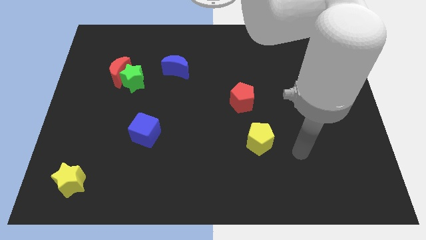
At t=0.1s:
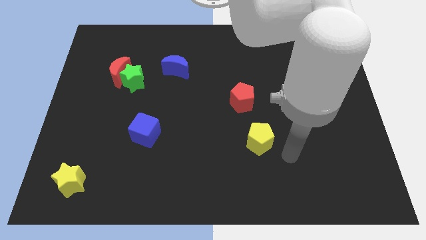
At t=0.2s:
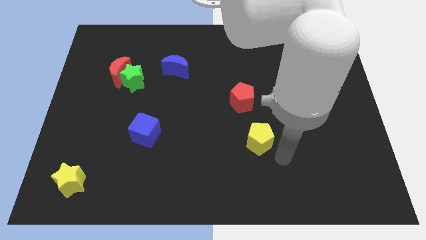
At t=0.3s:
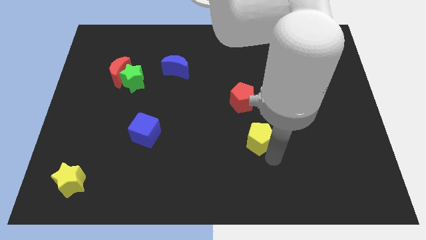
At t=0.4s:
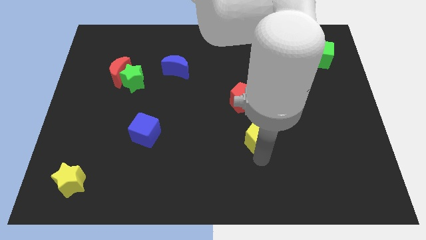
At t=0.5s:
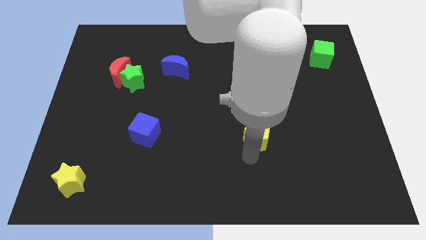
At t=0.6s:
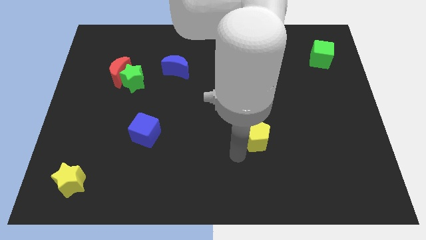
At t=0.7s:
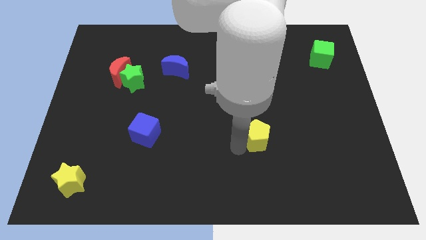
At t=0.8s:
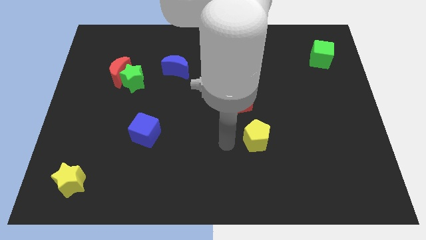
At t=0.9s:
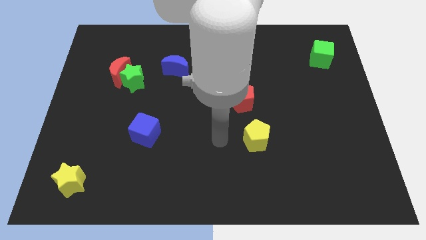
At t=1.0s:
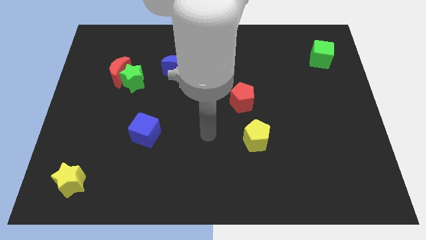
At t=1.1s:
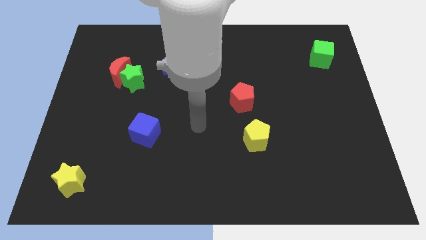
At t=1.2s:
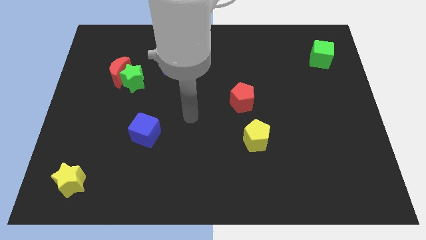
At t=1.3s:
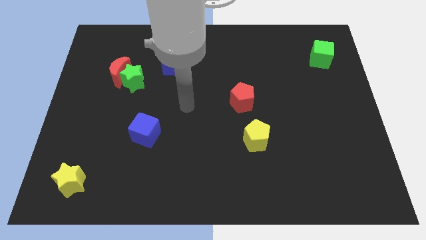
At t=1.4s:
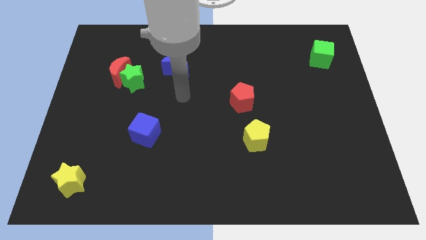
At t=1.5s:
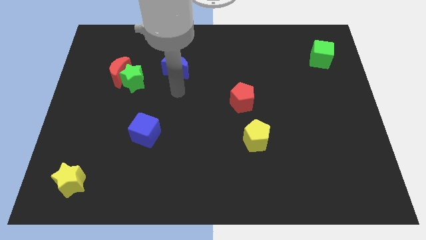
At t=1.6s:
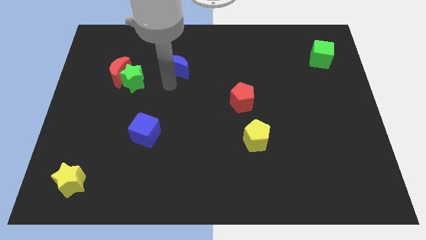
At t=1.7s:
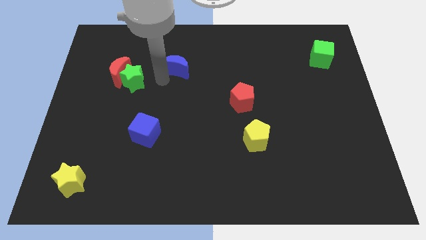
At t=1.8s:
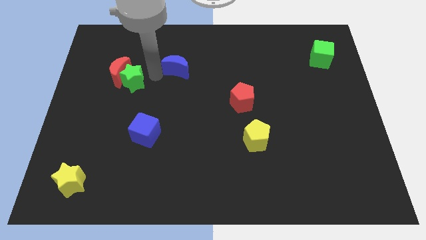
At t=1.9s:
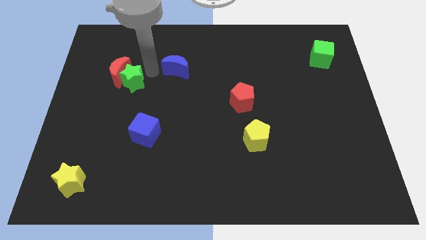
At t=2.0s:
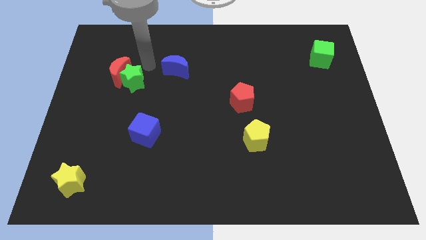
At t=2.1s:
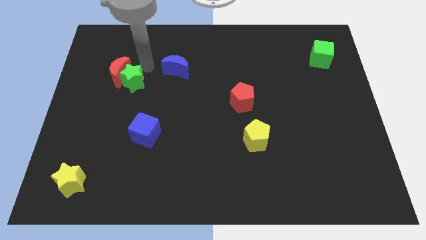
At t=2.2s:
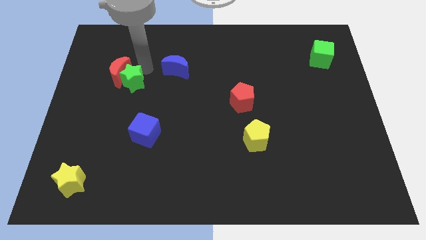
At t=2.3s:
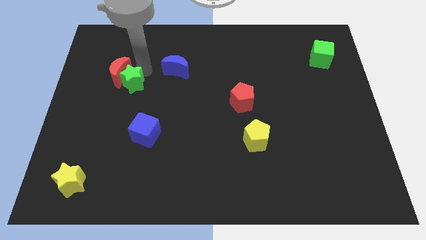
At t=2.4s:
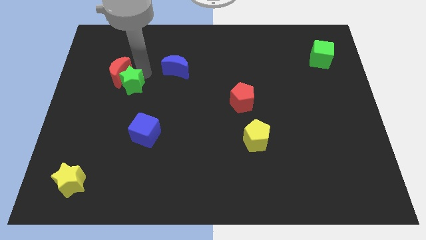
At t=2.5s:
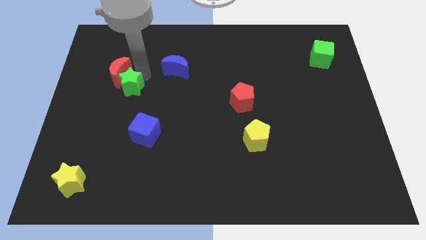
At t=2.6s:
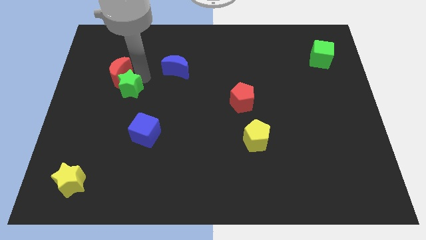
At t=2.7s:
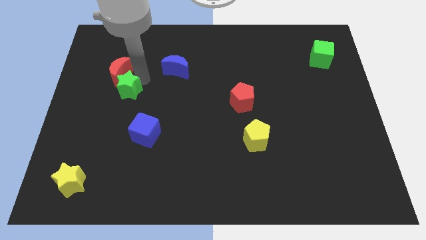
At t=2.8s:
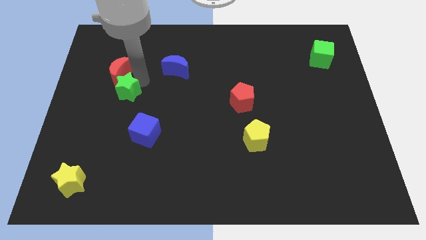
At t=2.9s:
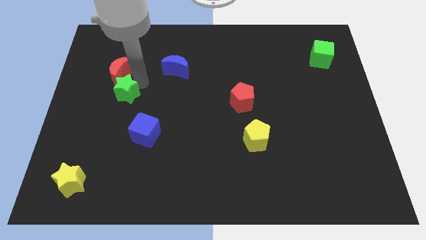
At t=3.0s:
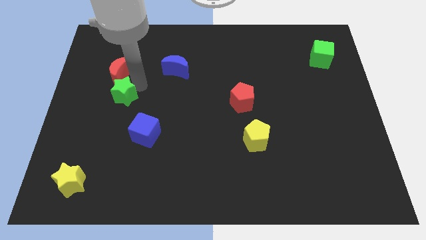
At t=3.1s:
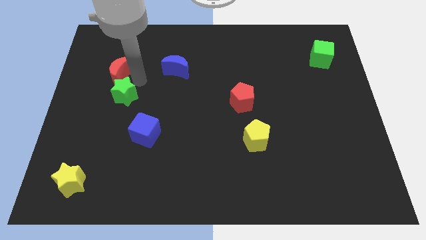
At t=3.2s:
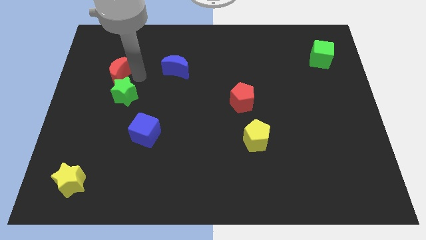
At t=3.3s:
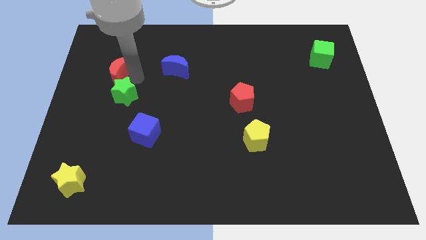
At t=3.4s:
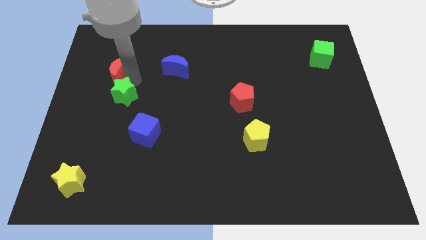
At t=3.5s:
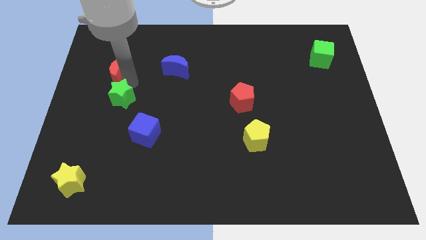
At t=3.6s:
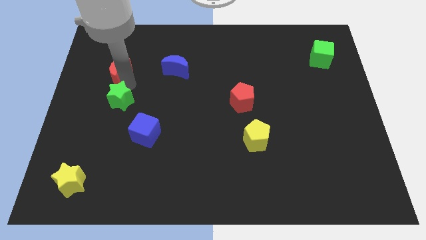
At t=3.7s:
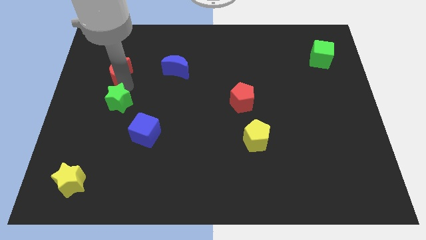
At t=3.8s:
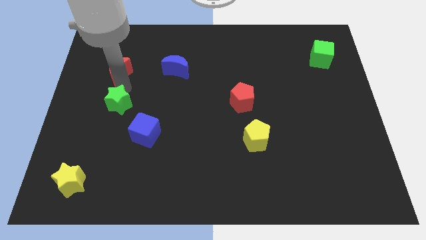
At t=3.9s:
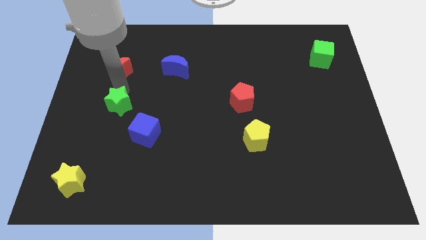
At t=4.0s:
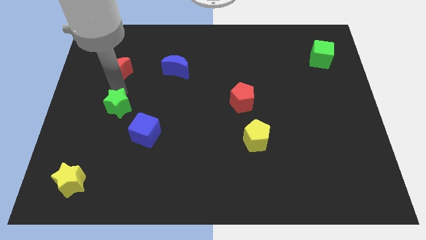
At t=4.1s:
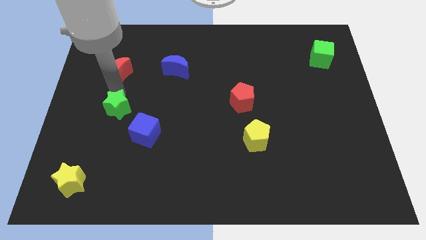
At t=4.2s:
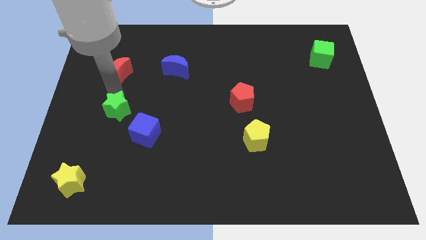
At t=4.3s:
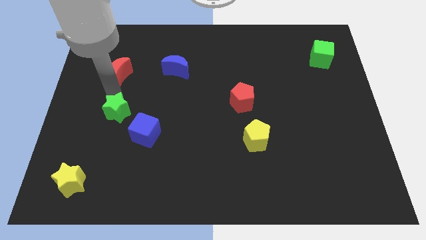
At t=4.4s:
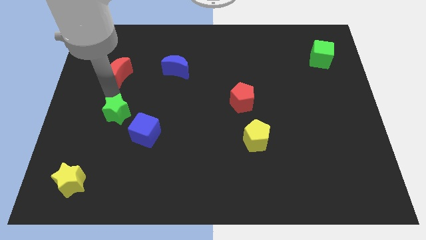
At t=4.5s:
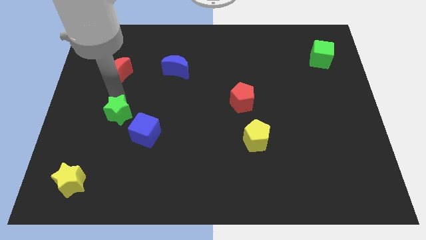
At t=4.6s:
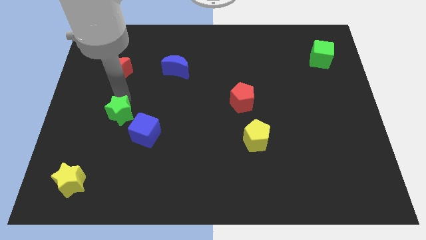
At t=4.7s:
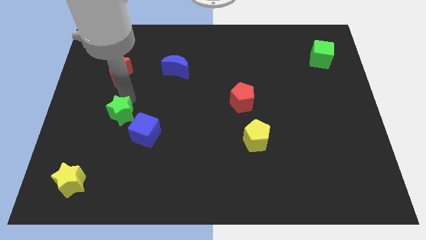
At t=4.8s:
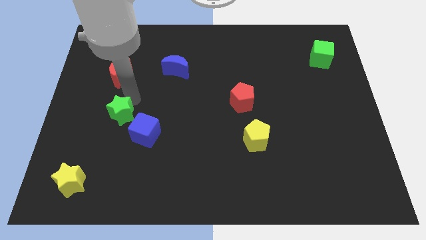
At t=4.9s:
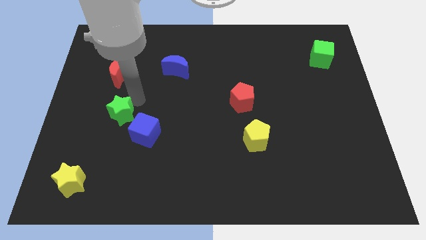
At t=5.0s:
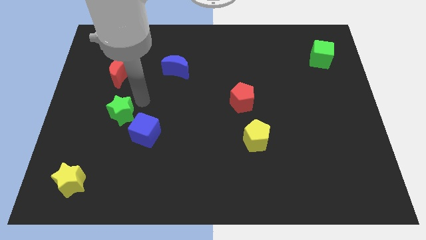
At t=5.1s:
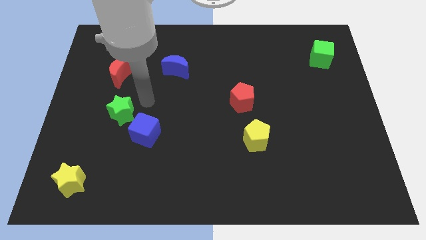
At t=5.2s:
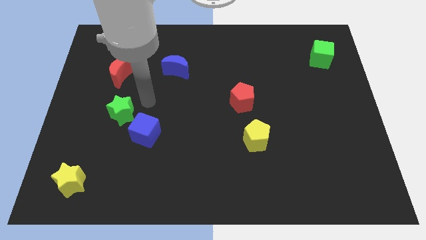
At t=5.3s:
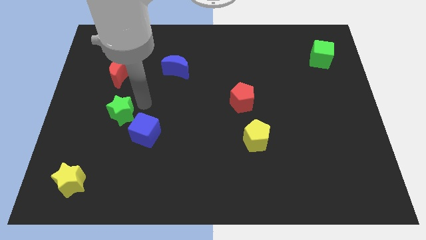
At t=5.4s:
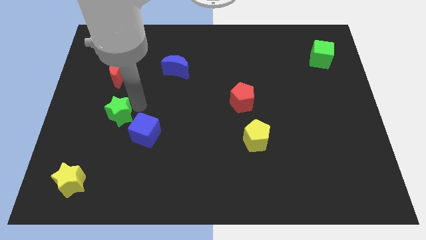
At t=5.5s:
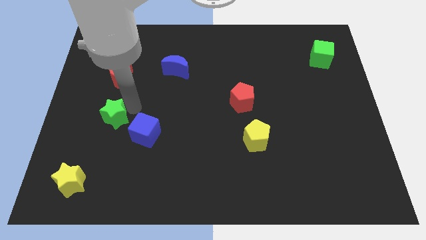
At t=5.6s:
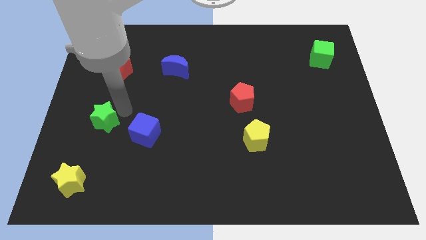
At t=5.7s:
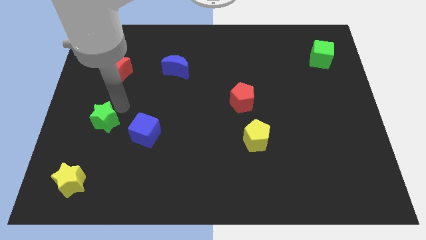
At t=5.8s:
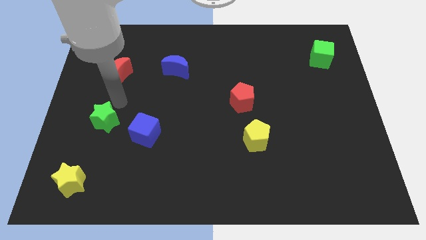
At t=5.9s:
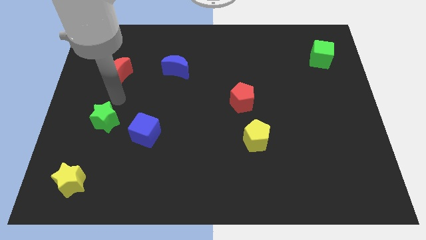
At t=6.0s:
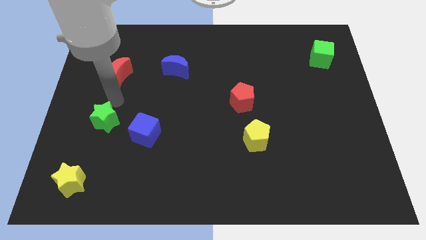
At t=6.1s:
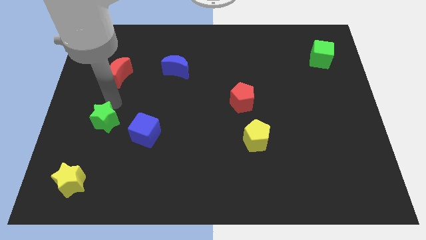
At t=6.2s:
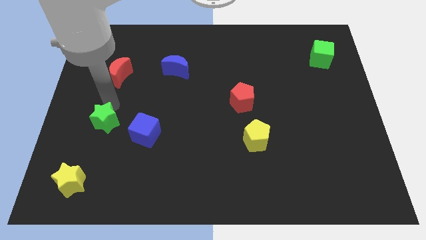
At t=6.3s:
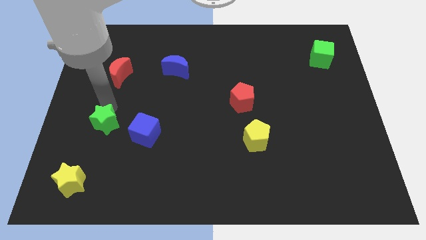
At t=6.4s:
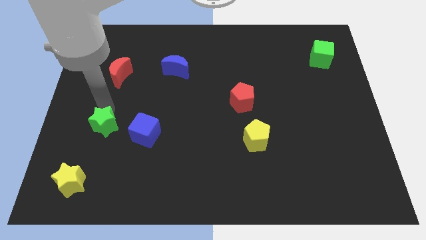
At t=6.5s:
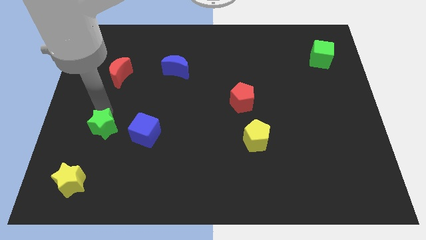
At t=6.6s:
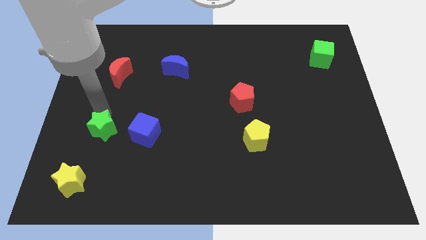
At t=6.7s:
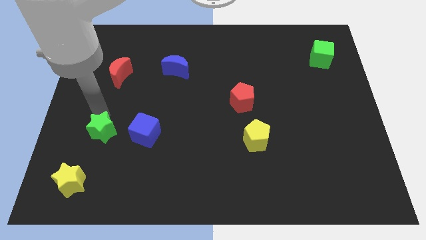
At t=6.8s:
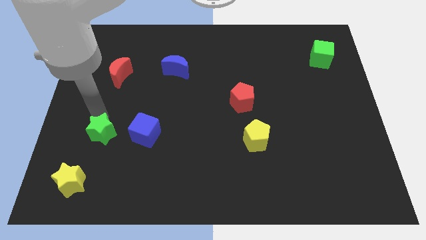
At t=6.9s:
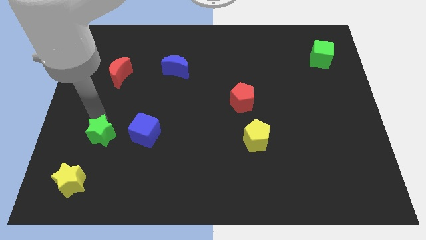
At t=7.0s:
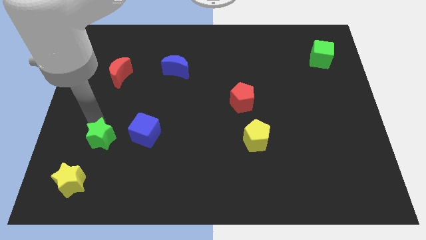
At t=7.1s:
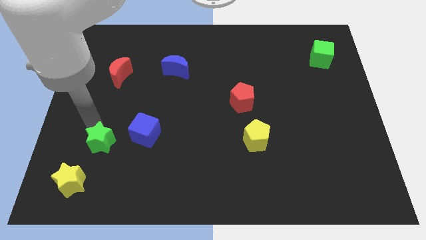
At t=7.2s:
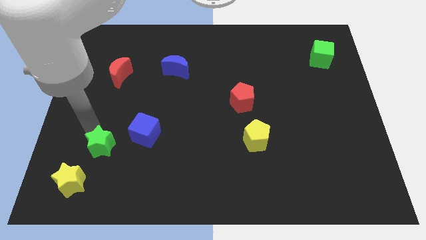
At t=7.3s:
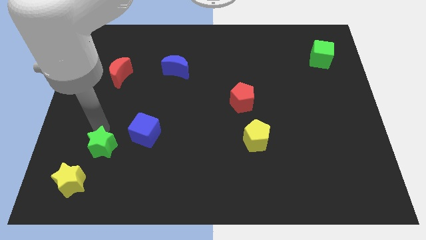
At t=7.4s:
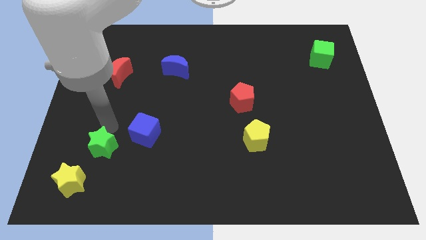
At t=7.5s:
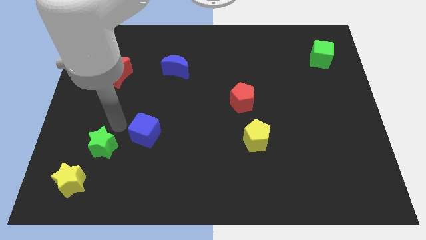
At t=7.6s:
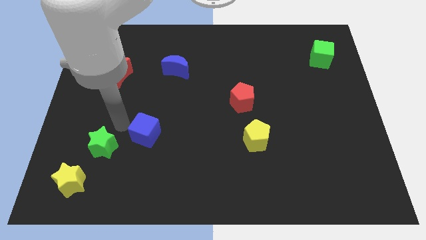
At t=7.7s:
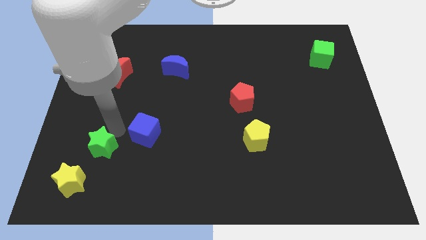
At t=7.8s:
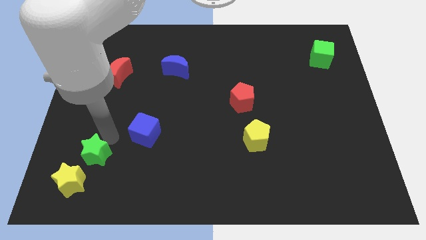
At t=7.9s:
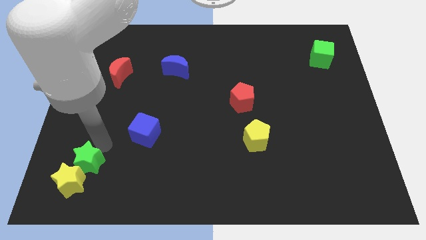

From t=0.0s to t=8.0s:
move the green star next to the yellow star
